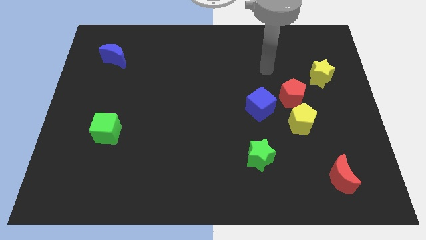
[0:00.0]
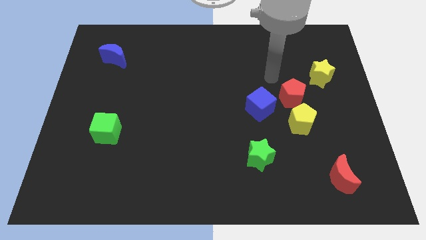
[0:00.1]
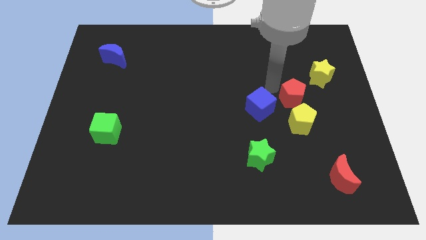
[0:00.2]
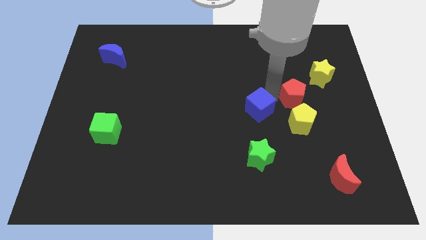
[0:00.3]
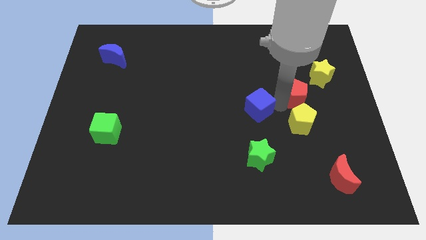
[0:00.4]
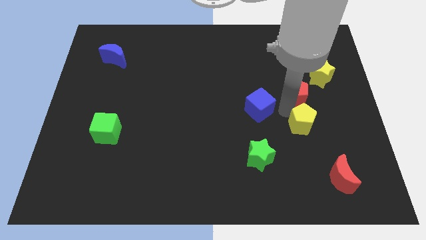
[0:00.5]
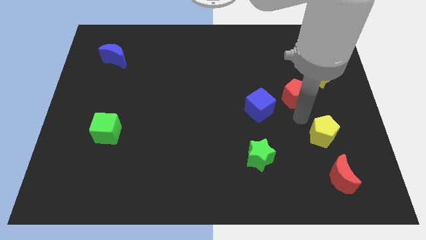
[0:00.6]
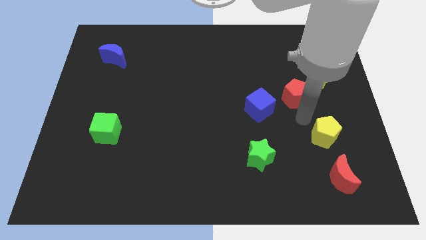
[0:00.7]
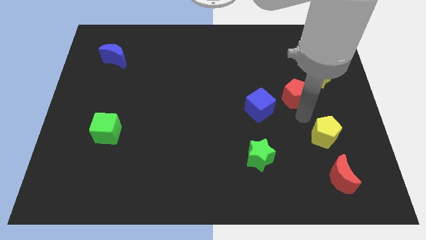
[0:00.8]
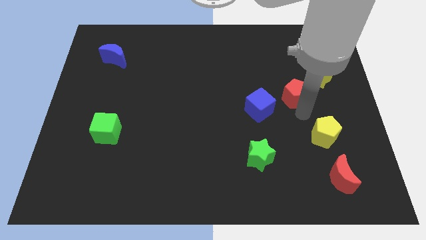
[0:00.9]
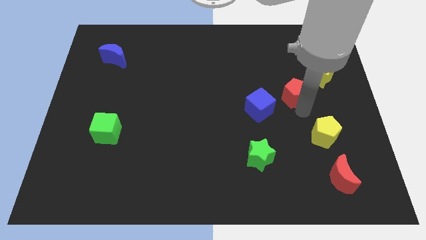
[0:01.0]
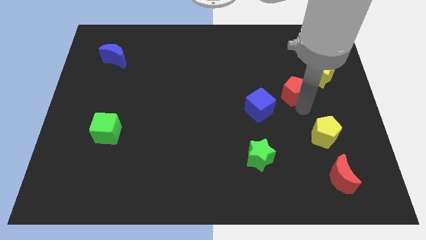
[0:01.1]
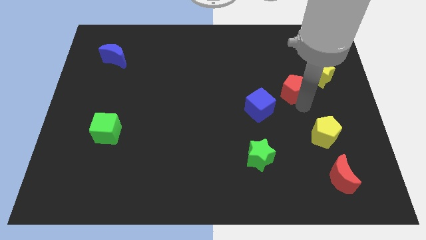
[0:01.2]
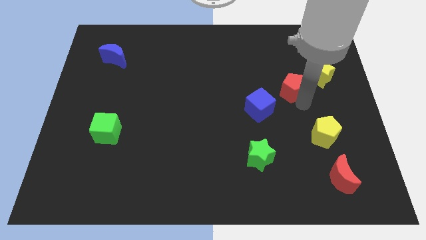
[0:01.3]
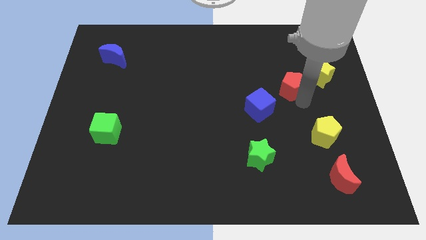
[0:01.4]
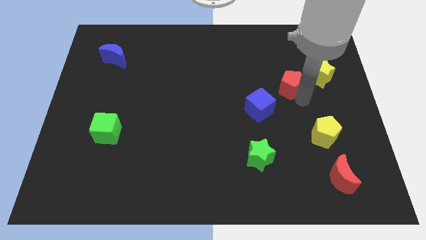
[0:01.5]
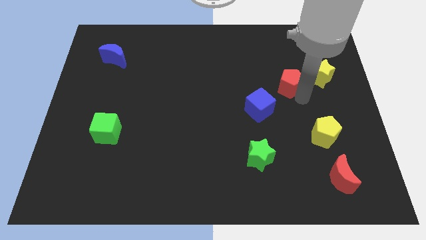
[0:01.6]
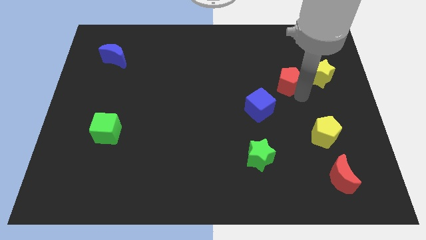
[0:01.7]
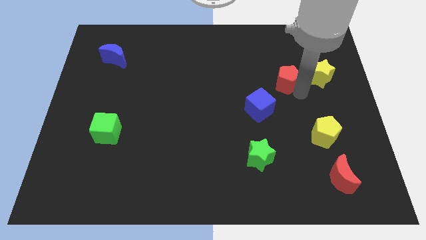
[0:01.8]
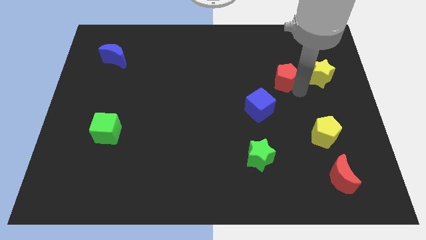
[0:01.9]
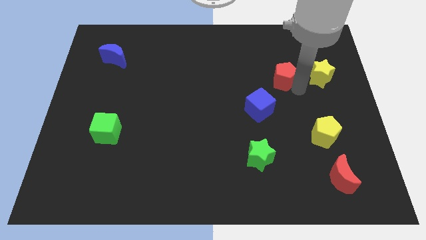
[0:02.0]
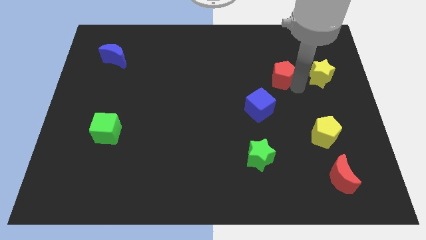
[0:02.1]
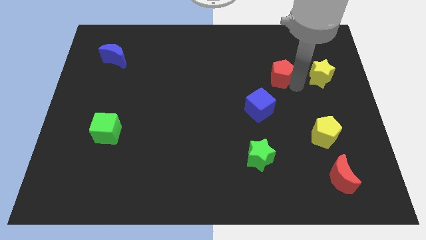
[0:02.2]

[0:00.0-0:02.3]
separate the red pentagon from the yellow pentagon, blue cube, and yellow star

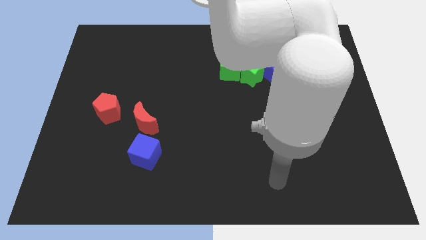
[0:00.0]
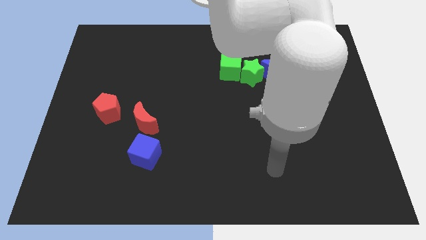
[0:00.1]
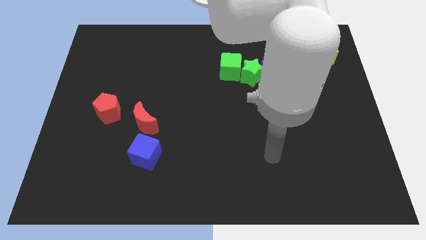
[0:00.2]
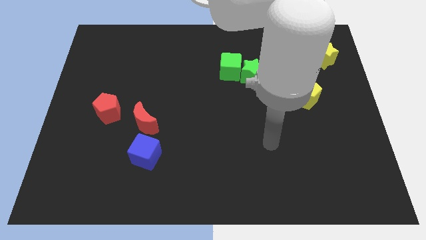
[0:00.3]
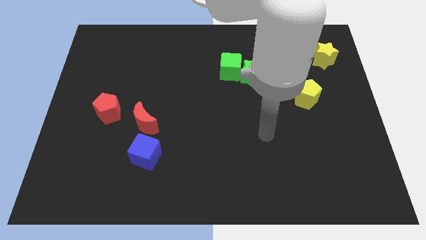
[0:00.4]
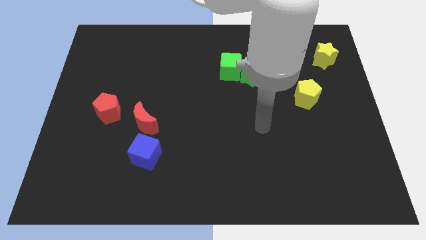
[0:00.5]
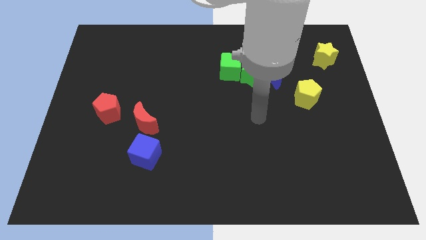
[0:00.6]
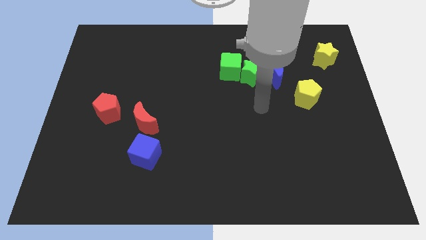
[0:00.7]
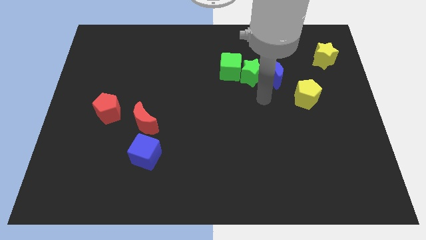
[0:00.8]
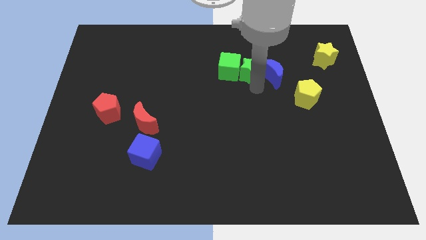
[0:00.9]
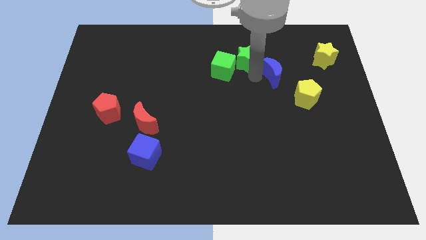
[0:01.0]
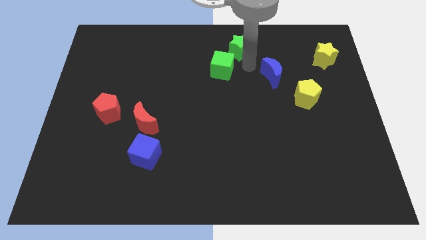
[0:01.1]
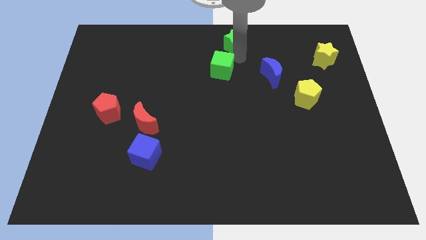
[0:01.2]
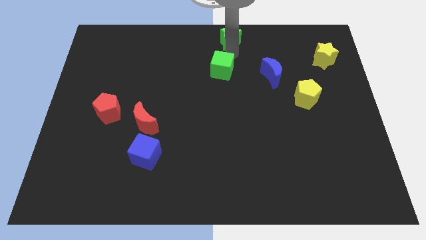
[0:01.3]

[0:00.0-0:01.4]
pull the green cube apart from the green star

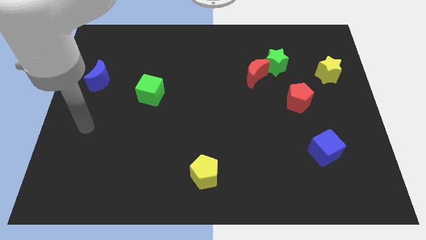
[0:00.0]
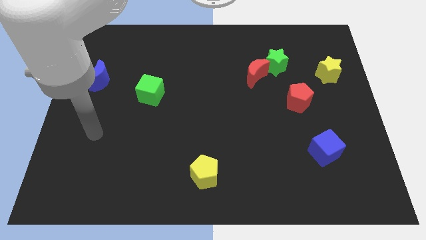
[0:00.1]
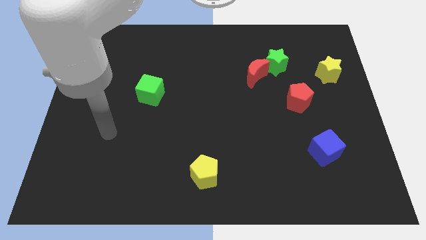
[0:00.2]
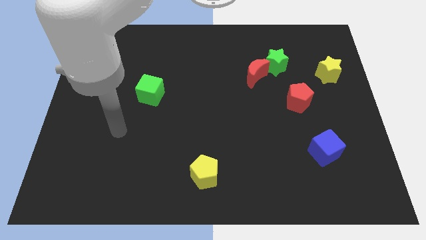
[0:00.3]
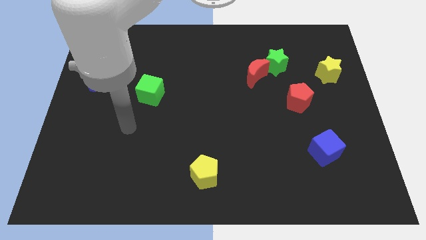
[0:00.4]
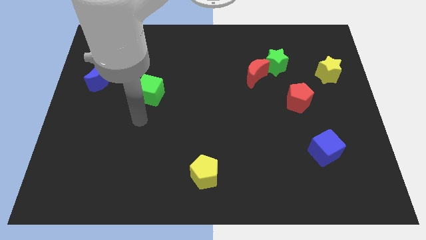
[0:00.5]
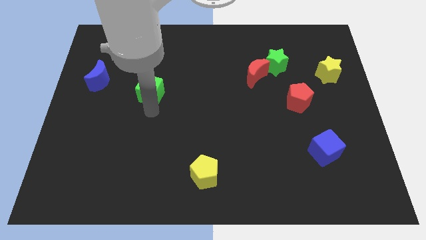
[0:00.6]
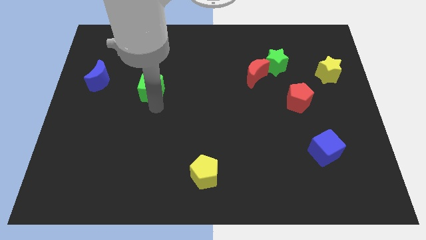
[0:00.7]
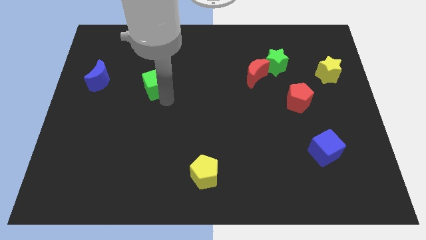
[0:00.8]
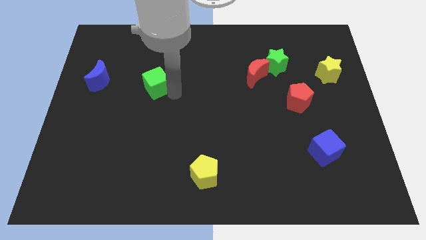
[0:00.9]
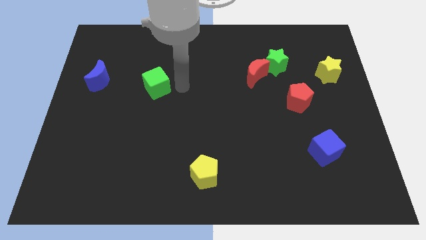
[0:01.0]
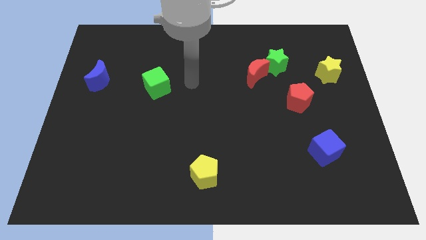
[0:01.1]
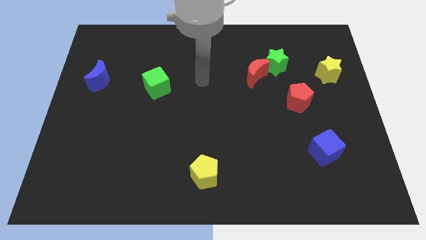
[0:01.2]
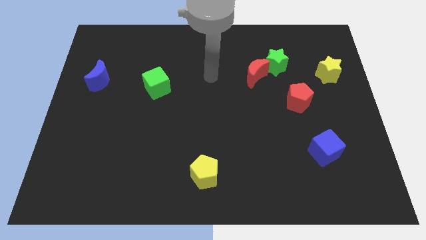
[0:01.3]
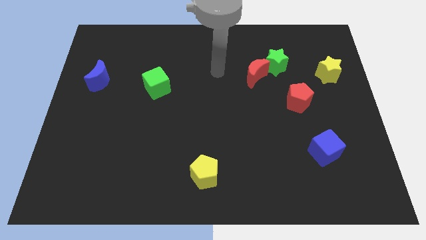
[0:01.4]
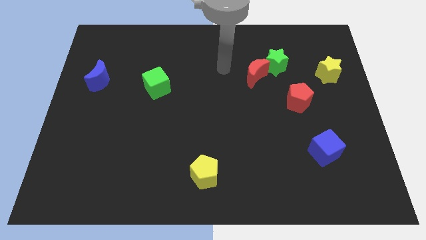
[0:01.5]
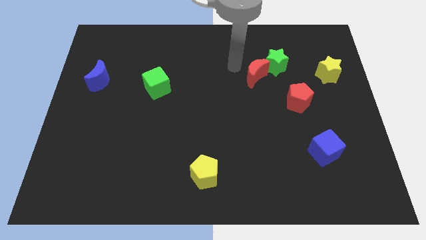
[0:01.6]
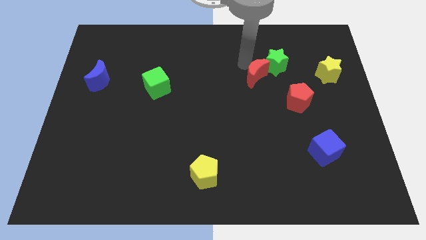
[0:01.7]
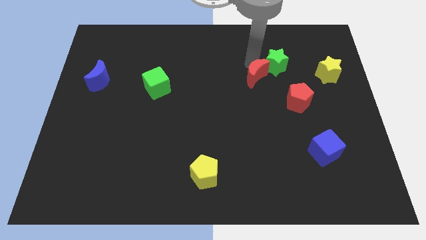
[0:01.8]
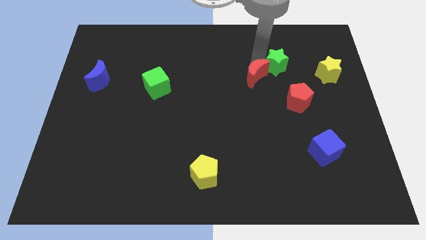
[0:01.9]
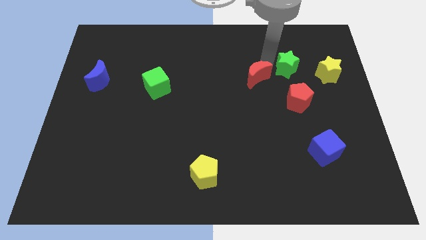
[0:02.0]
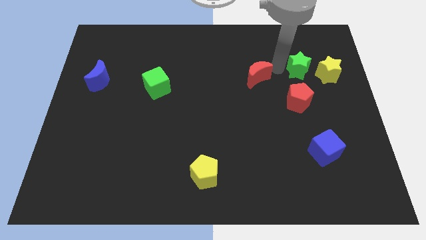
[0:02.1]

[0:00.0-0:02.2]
move the red moon away from the green star

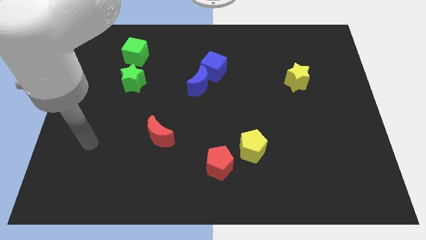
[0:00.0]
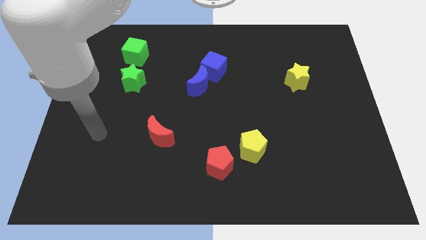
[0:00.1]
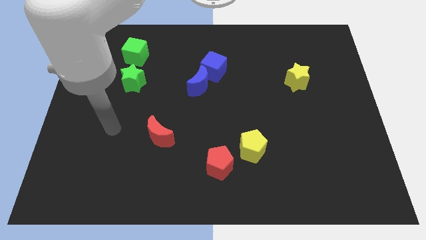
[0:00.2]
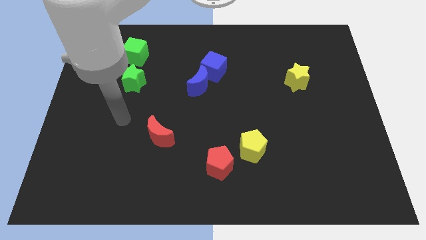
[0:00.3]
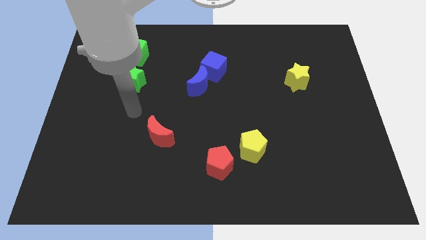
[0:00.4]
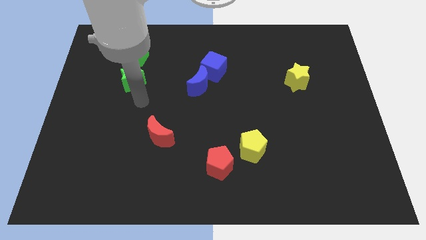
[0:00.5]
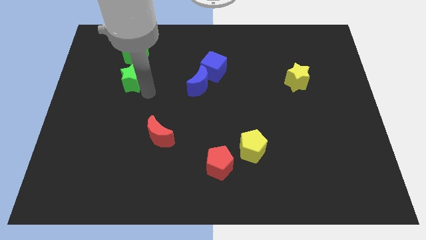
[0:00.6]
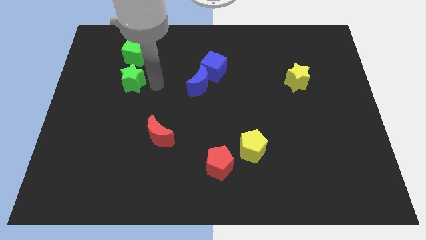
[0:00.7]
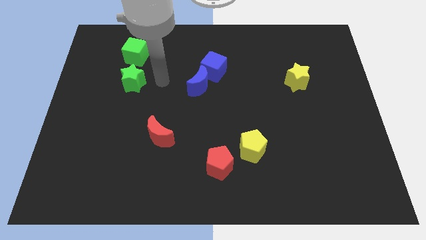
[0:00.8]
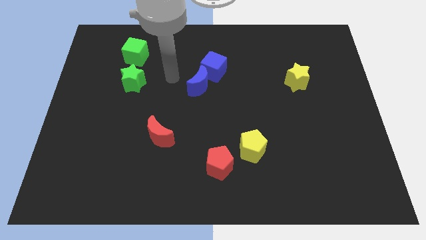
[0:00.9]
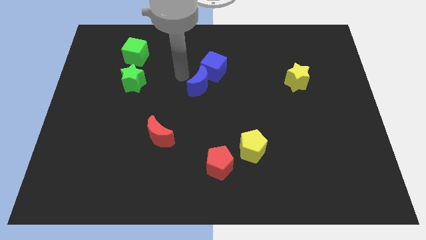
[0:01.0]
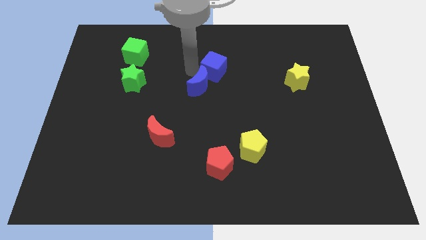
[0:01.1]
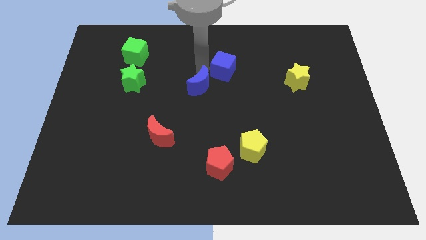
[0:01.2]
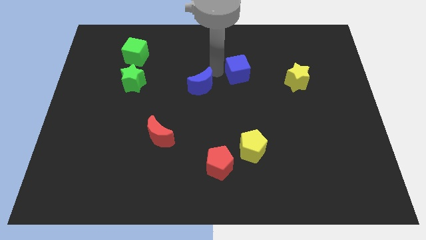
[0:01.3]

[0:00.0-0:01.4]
pull the blue moon apart from the blue cube

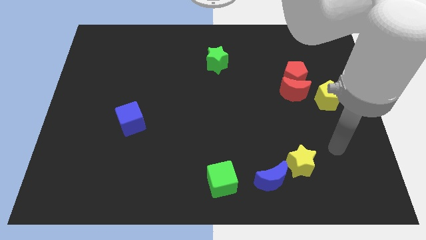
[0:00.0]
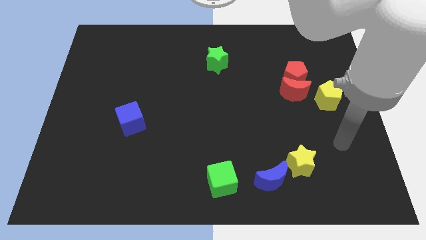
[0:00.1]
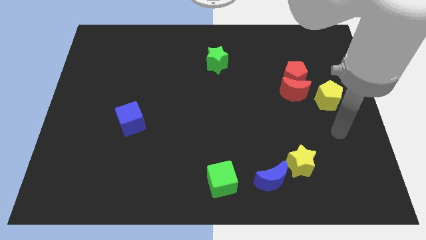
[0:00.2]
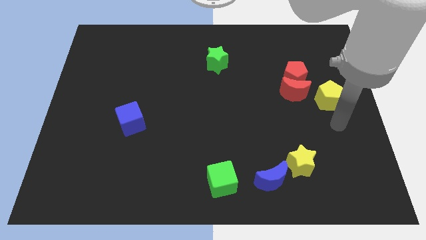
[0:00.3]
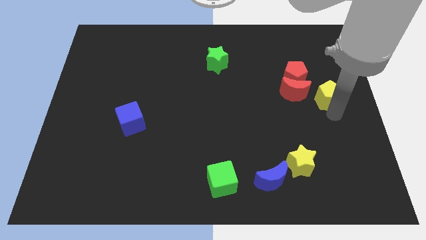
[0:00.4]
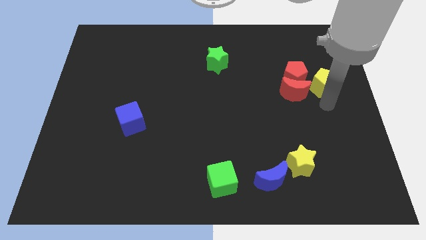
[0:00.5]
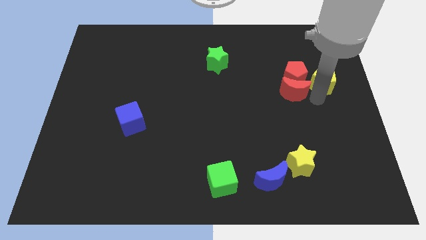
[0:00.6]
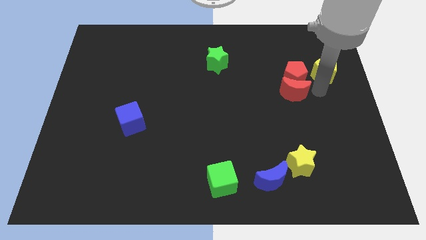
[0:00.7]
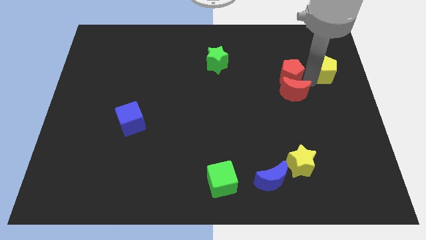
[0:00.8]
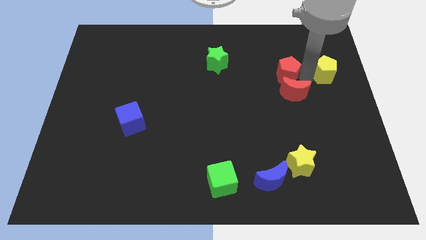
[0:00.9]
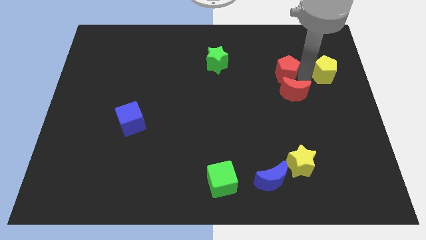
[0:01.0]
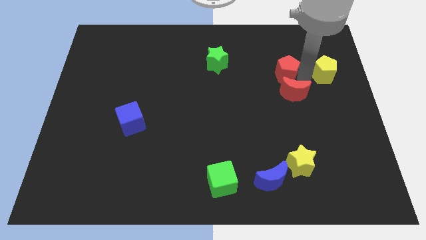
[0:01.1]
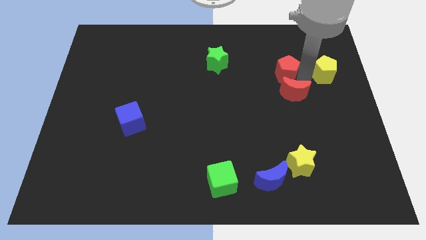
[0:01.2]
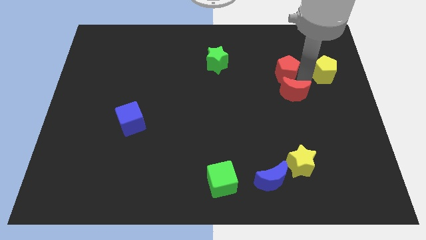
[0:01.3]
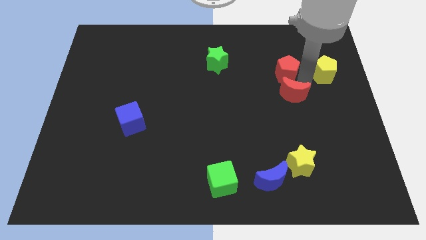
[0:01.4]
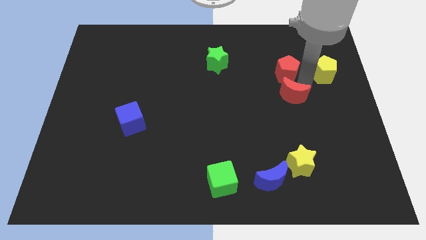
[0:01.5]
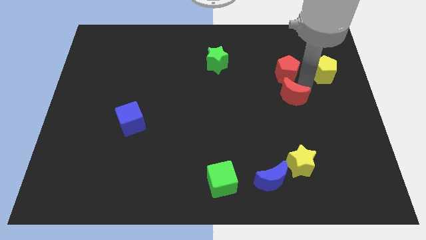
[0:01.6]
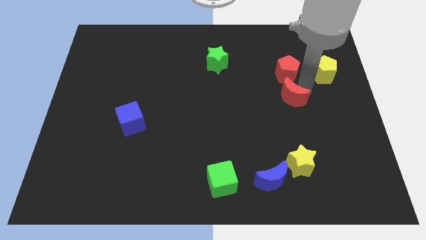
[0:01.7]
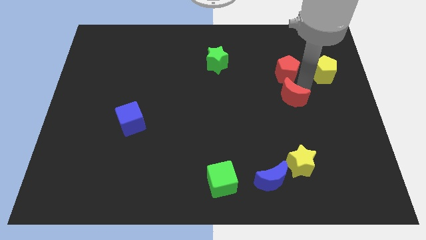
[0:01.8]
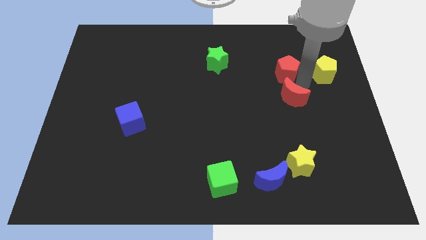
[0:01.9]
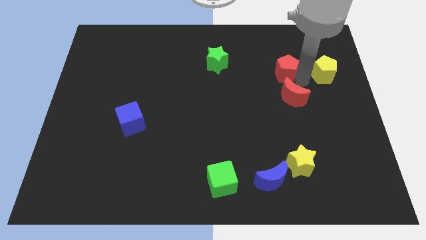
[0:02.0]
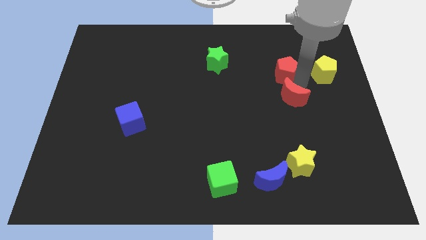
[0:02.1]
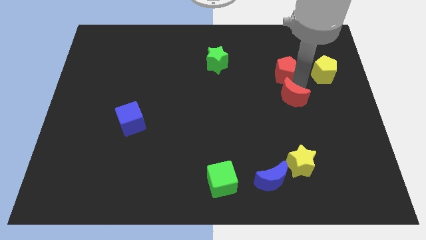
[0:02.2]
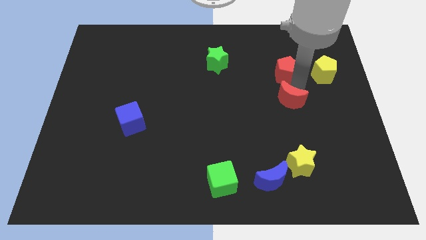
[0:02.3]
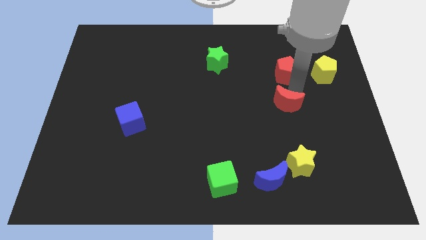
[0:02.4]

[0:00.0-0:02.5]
separate the red moon from the red pentagon and yellow pentagon
